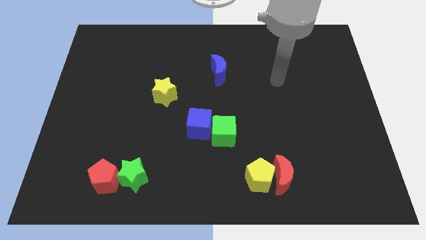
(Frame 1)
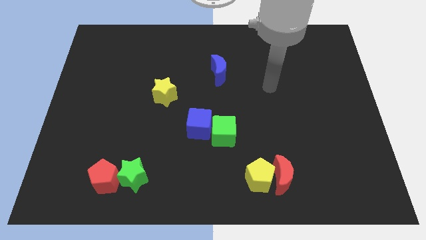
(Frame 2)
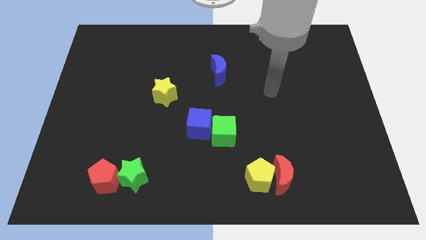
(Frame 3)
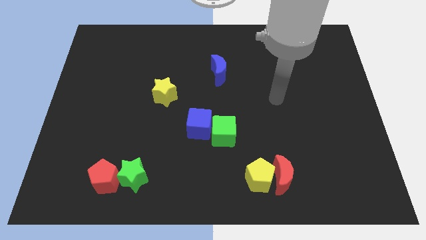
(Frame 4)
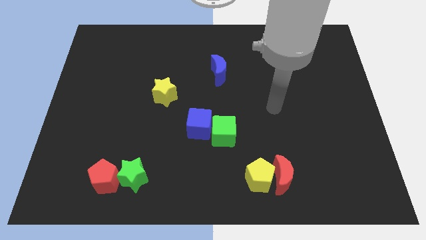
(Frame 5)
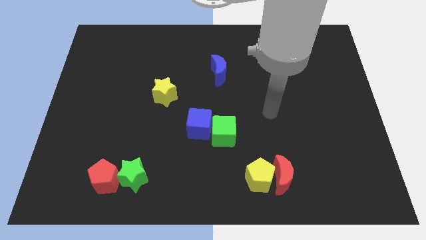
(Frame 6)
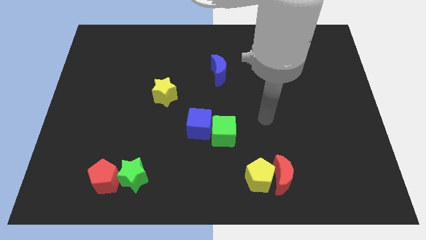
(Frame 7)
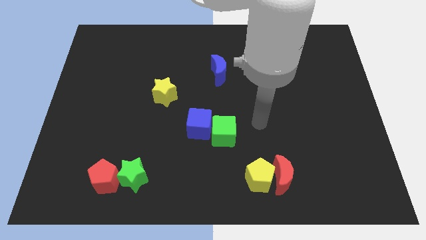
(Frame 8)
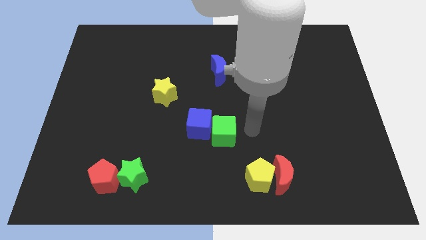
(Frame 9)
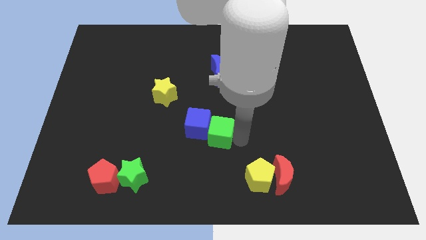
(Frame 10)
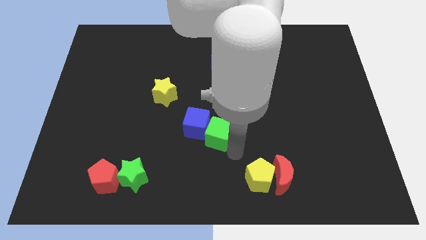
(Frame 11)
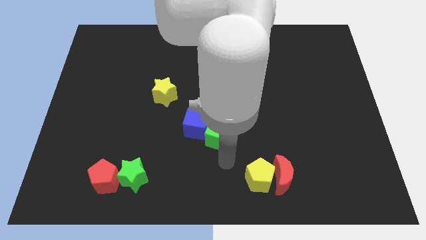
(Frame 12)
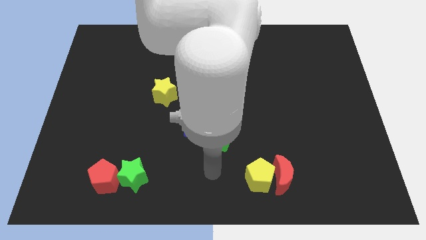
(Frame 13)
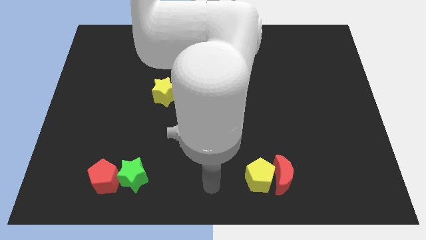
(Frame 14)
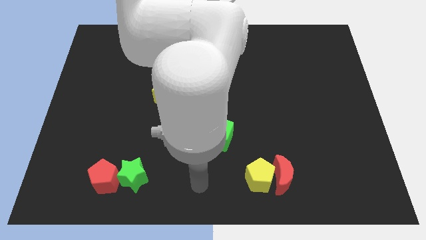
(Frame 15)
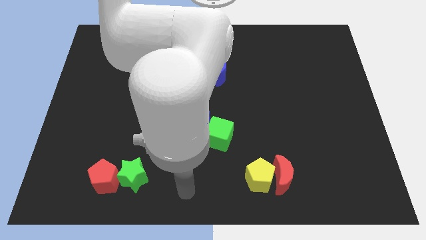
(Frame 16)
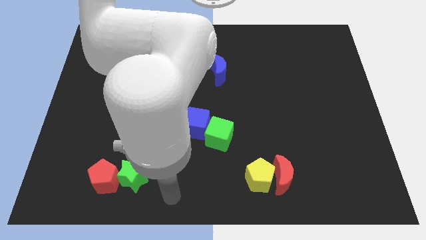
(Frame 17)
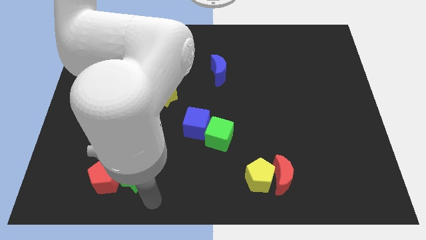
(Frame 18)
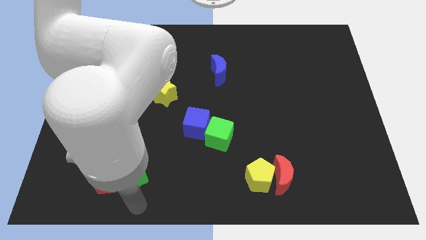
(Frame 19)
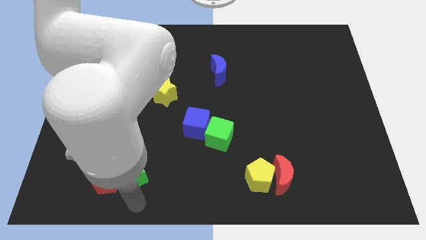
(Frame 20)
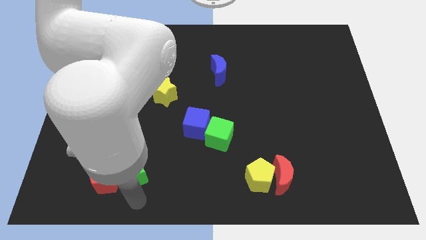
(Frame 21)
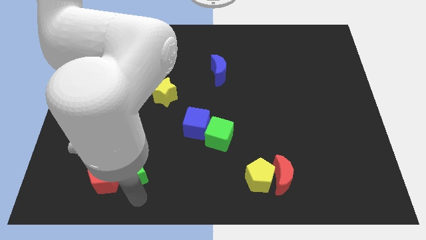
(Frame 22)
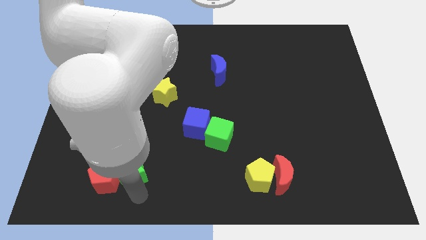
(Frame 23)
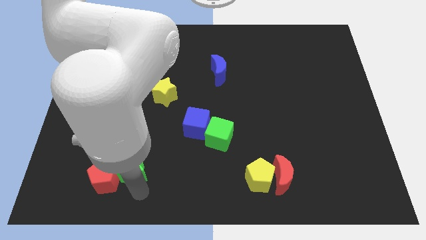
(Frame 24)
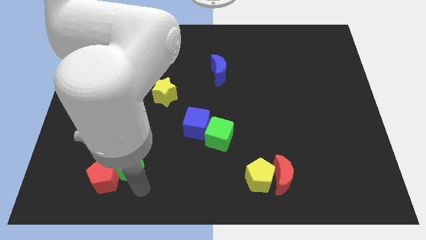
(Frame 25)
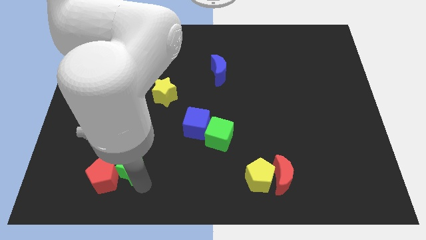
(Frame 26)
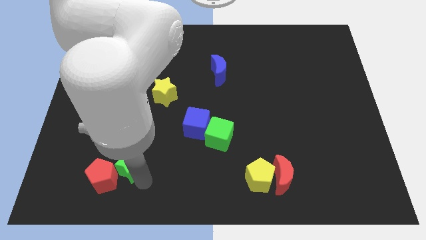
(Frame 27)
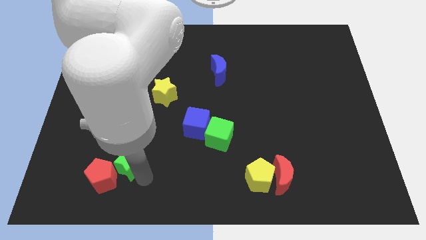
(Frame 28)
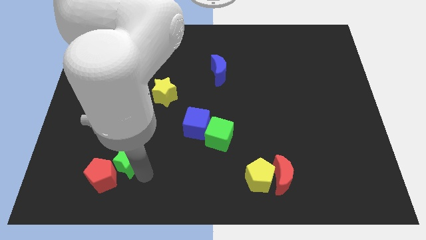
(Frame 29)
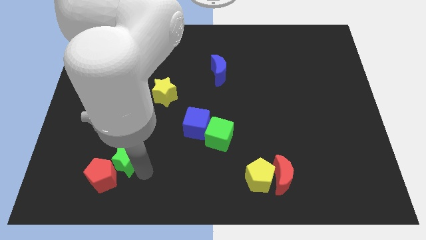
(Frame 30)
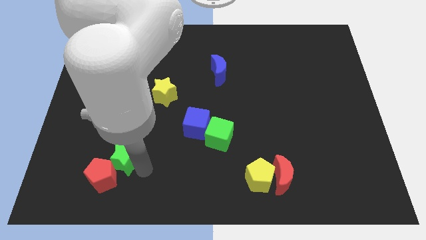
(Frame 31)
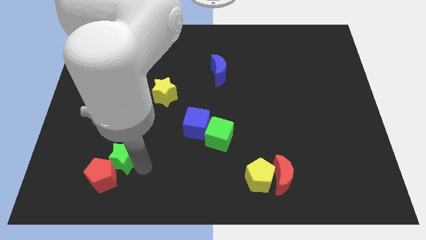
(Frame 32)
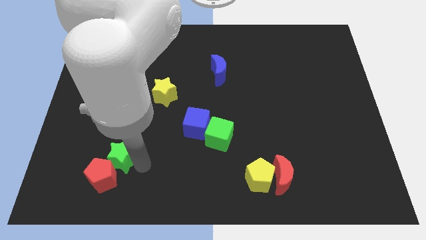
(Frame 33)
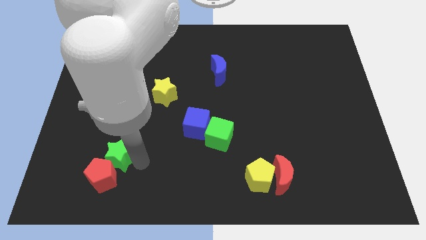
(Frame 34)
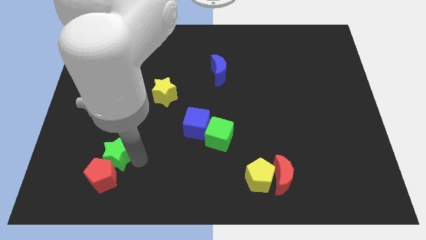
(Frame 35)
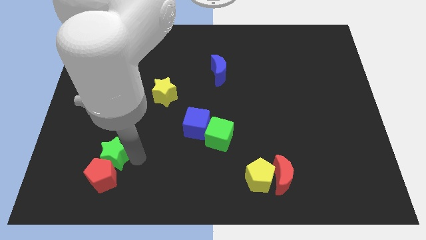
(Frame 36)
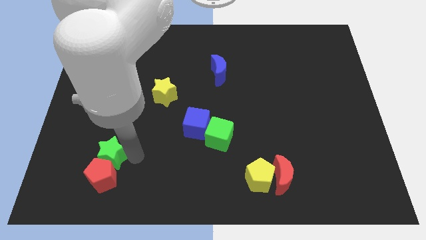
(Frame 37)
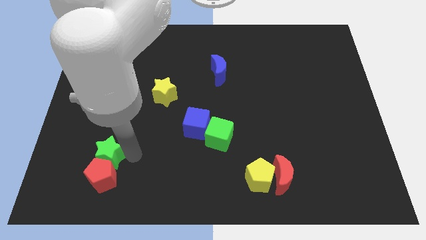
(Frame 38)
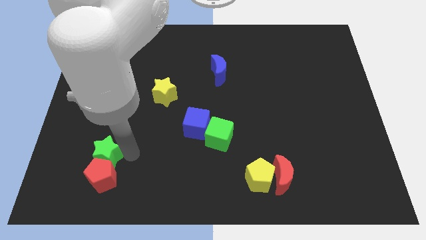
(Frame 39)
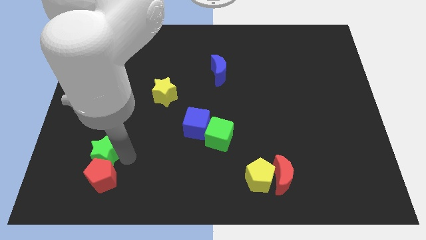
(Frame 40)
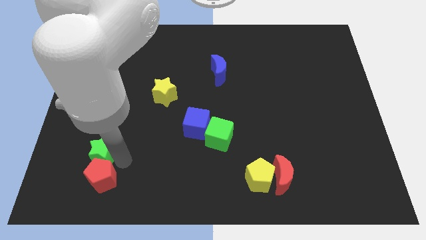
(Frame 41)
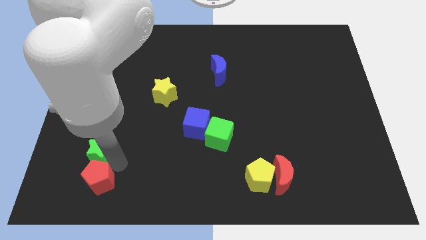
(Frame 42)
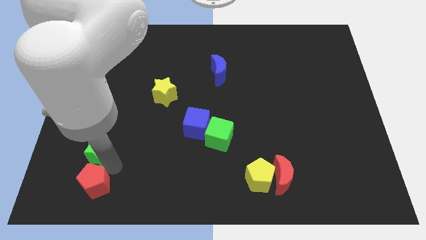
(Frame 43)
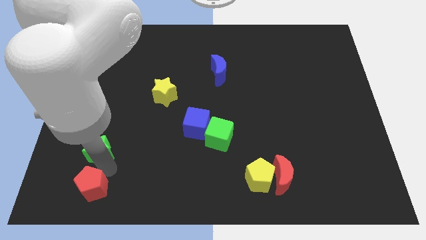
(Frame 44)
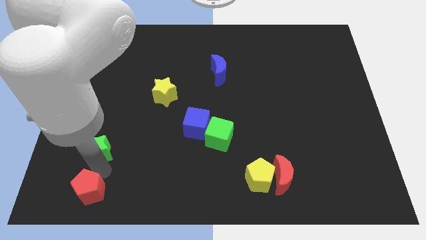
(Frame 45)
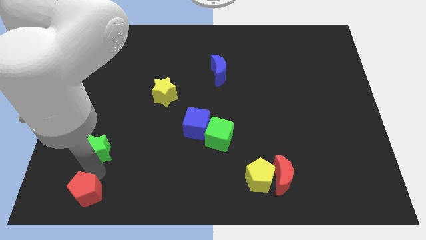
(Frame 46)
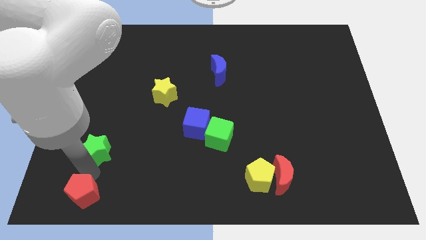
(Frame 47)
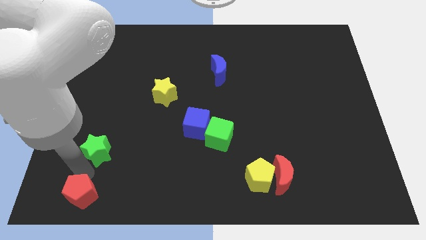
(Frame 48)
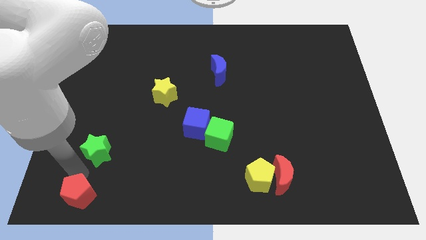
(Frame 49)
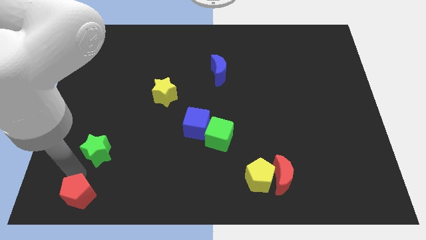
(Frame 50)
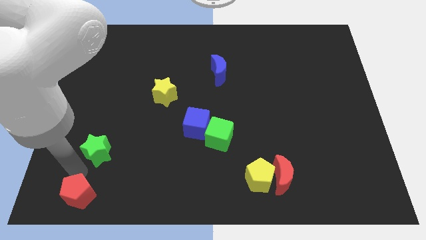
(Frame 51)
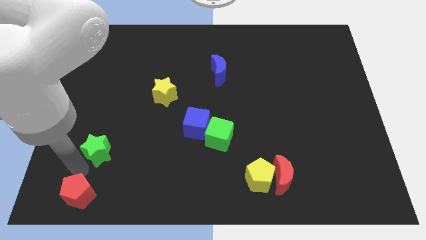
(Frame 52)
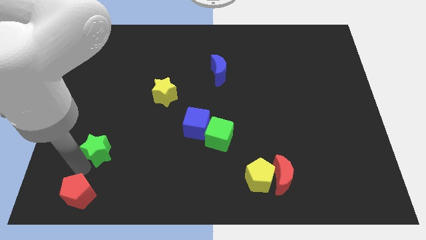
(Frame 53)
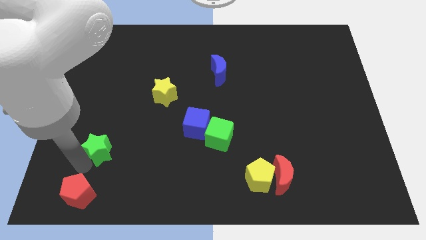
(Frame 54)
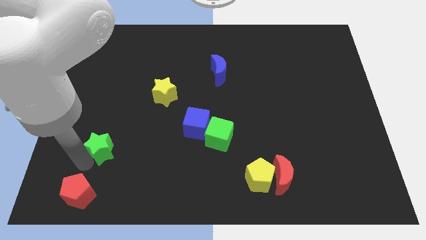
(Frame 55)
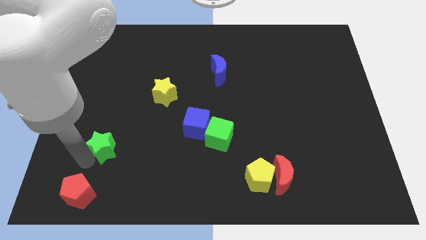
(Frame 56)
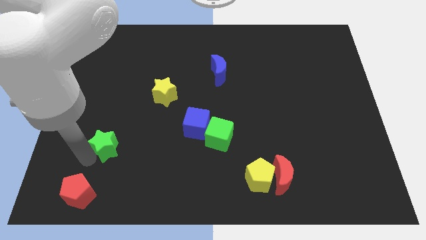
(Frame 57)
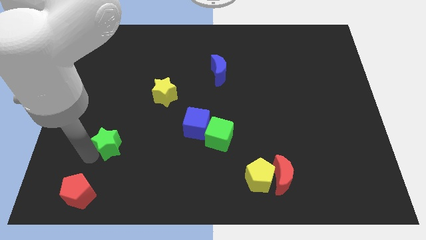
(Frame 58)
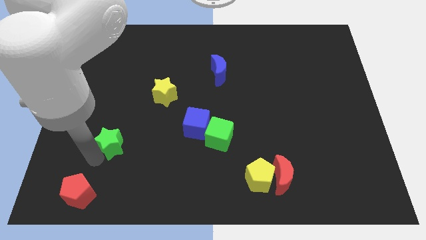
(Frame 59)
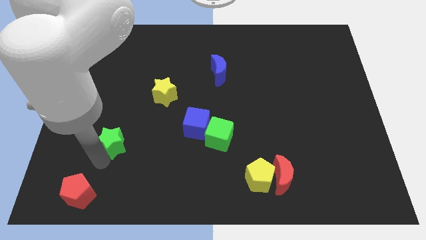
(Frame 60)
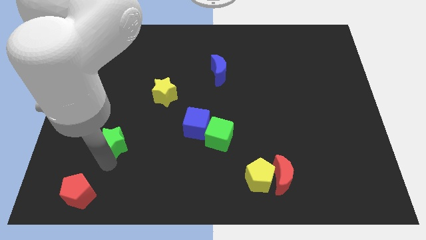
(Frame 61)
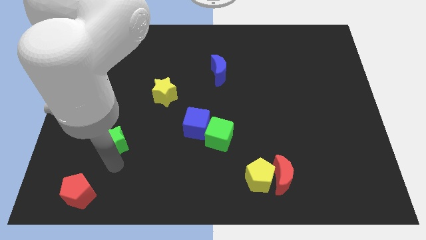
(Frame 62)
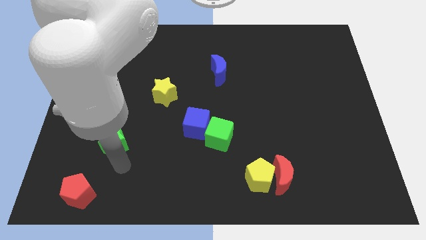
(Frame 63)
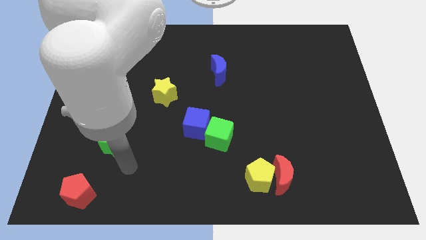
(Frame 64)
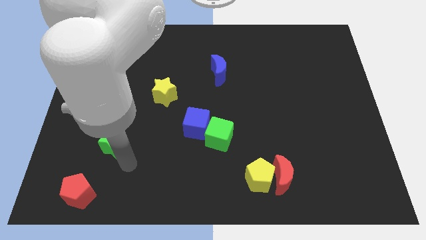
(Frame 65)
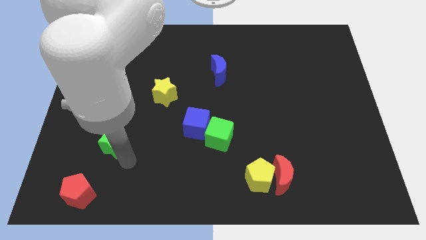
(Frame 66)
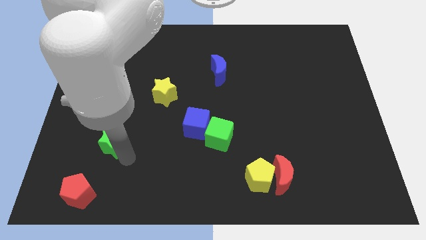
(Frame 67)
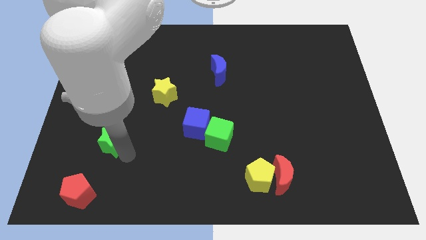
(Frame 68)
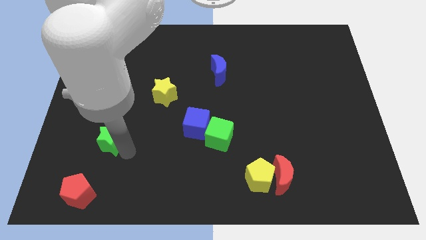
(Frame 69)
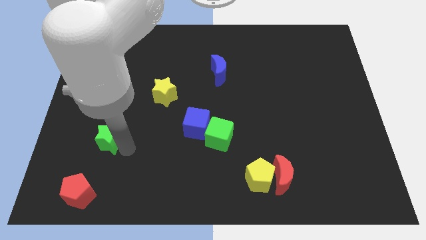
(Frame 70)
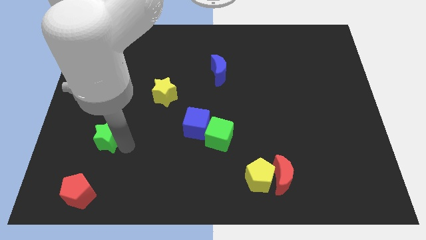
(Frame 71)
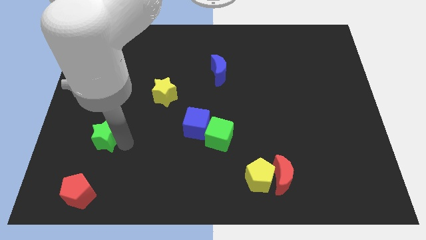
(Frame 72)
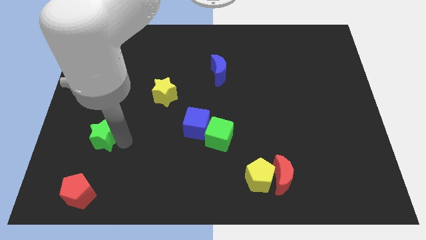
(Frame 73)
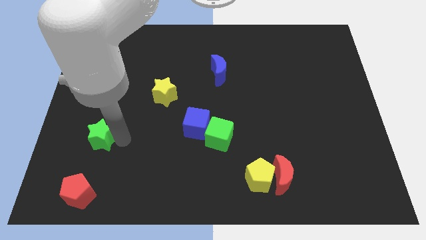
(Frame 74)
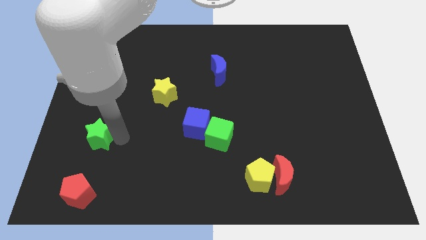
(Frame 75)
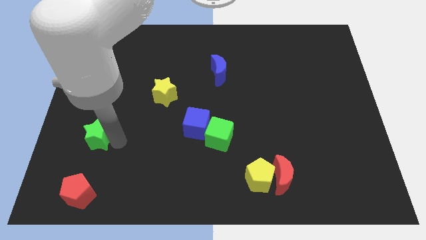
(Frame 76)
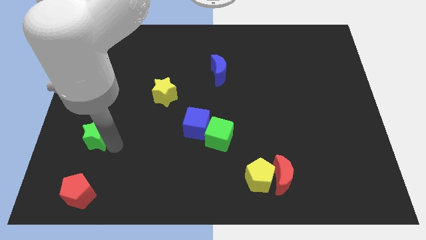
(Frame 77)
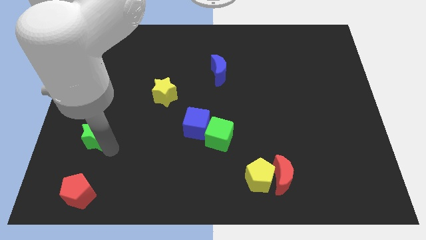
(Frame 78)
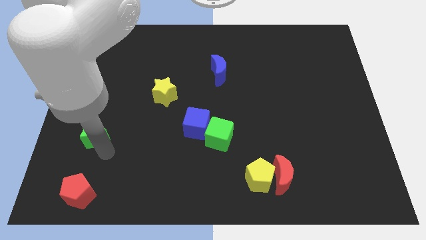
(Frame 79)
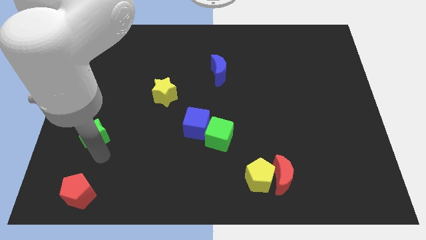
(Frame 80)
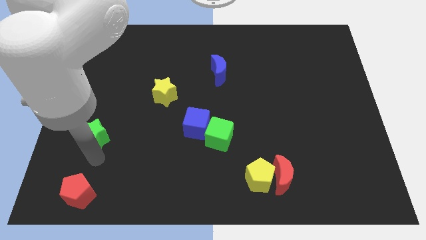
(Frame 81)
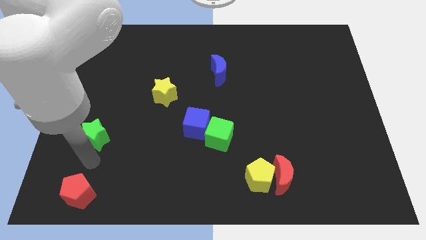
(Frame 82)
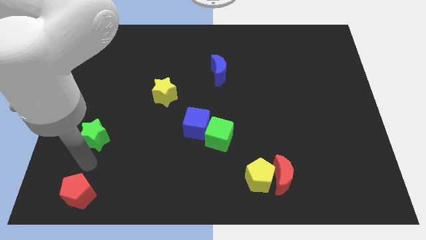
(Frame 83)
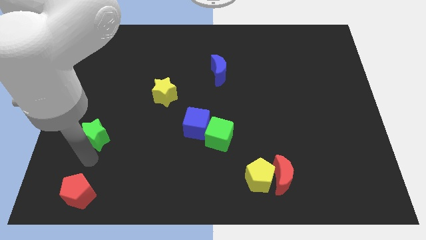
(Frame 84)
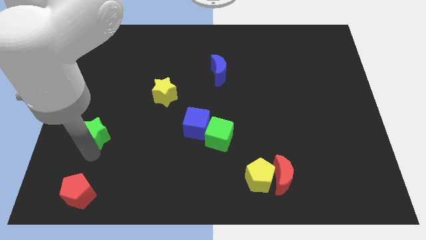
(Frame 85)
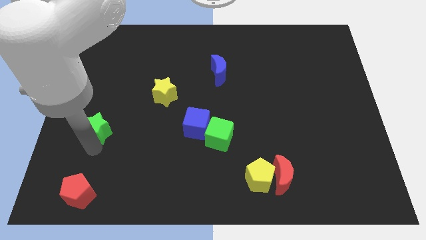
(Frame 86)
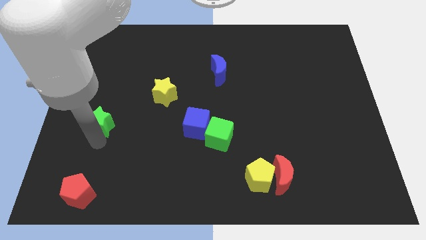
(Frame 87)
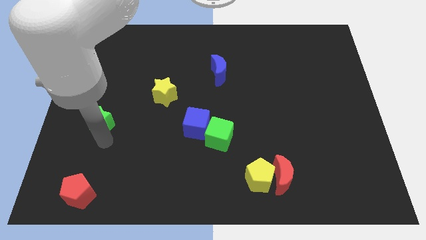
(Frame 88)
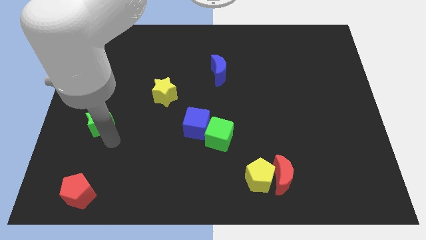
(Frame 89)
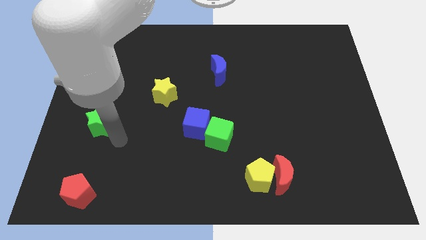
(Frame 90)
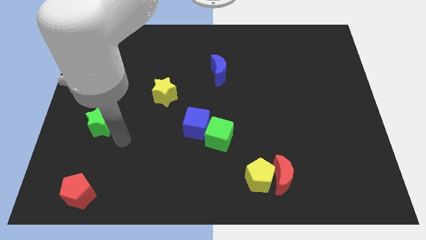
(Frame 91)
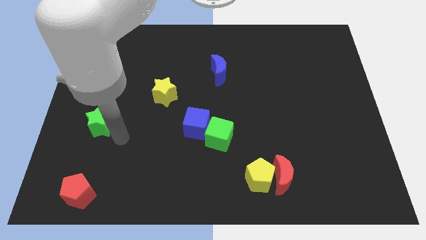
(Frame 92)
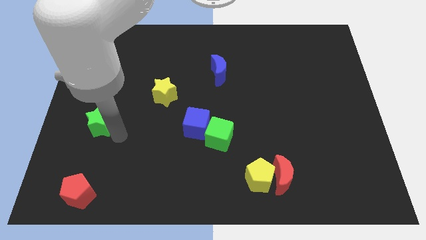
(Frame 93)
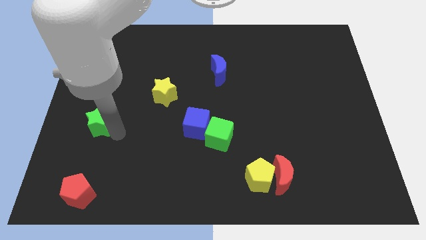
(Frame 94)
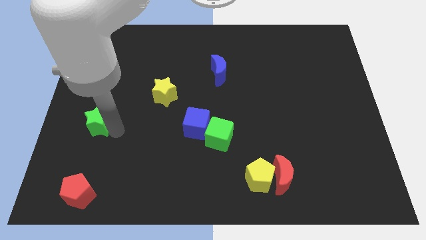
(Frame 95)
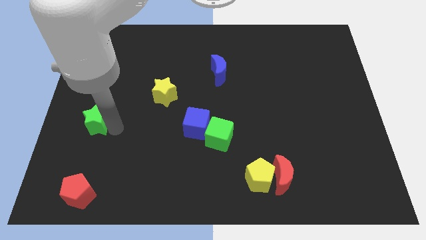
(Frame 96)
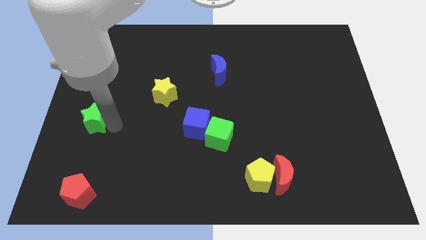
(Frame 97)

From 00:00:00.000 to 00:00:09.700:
move the green star to the left side
